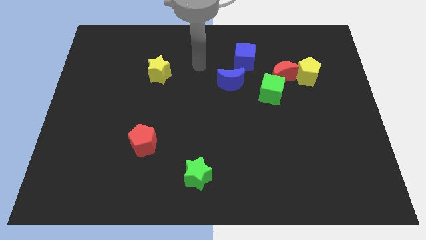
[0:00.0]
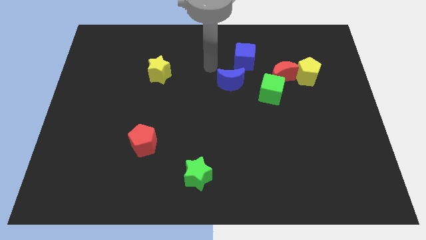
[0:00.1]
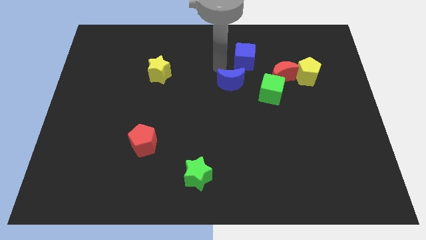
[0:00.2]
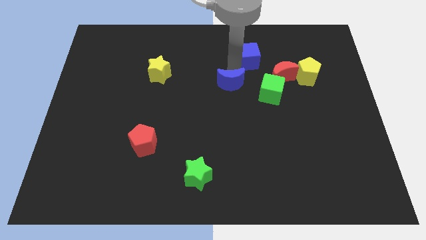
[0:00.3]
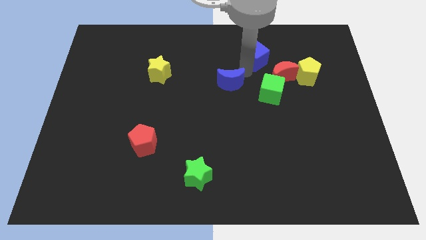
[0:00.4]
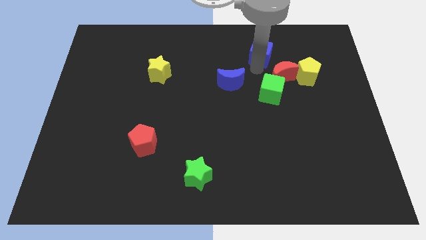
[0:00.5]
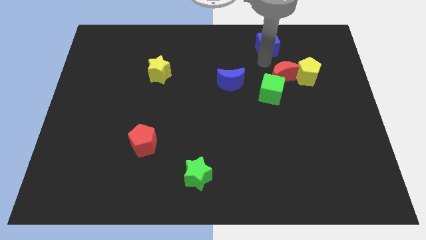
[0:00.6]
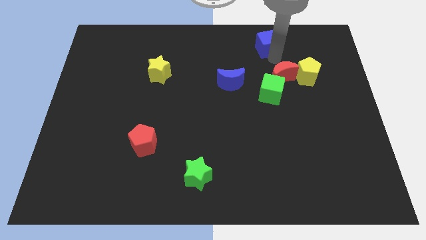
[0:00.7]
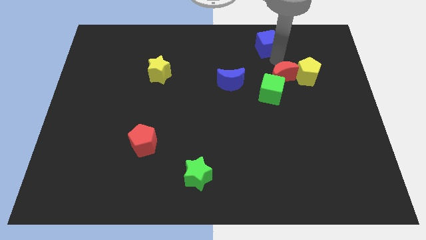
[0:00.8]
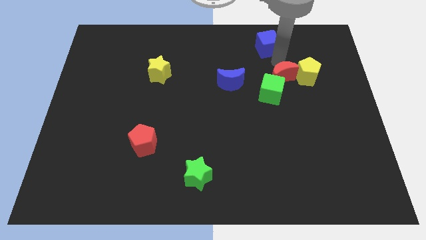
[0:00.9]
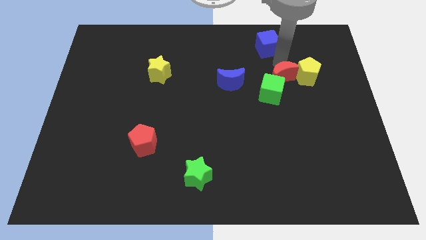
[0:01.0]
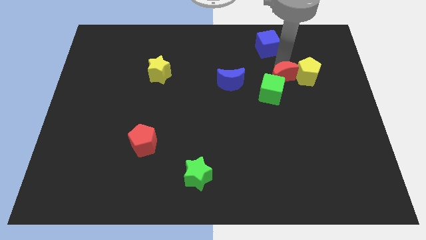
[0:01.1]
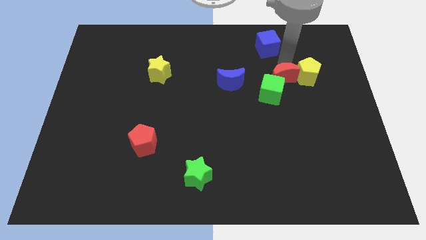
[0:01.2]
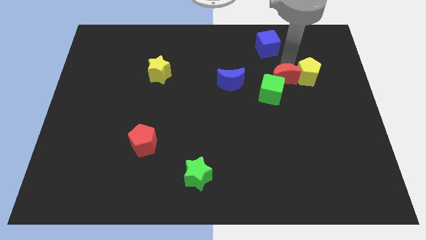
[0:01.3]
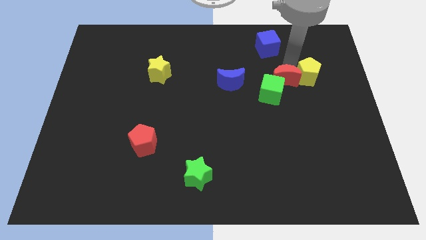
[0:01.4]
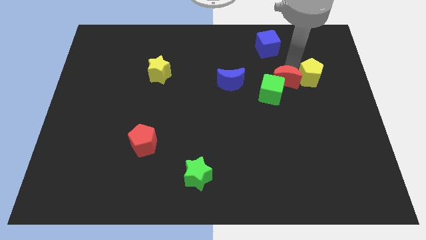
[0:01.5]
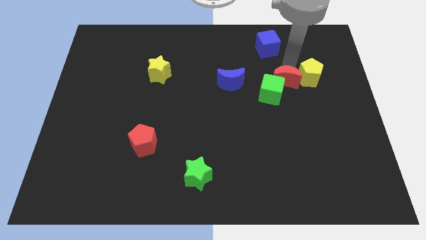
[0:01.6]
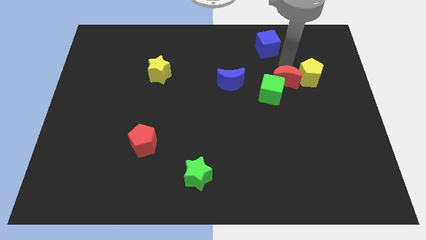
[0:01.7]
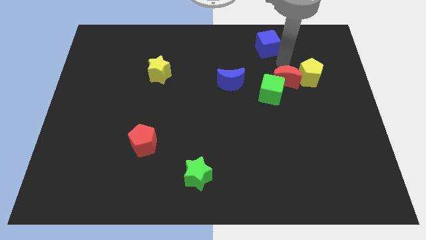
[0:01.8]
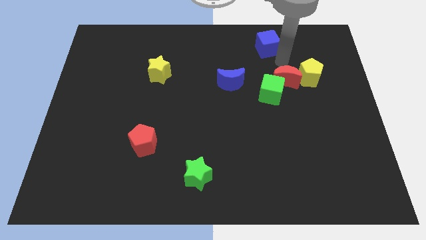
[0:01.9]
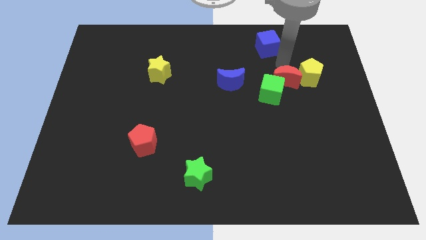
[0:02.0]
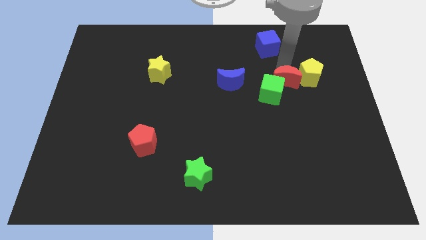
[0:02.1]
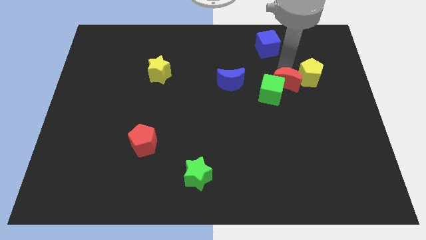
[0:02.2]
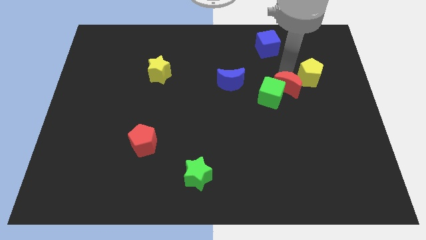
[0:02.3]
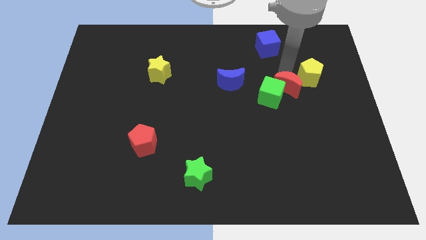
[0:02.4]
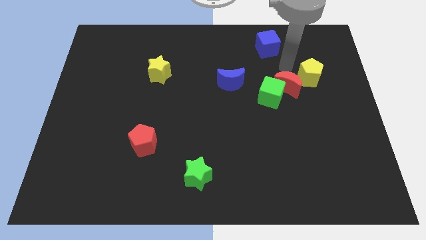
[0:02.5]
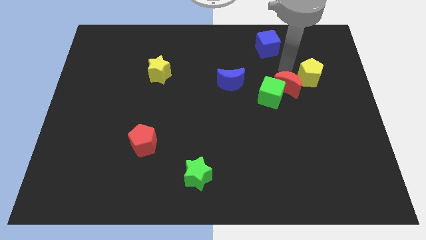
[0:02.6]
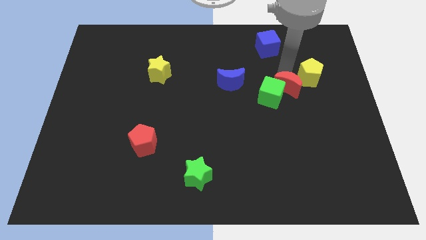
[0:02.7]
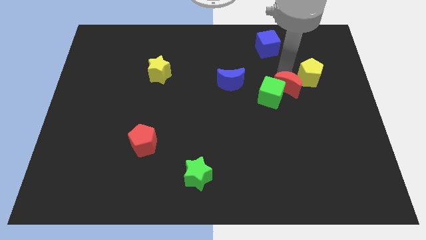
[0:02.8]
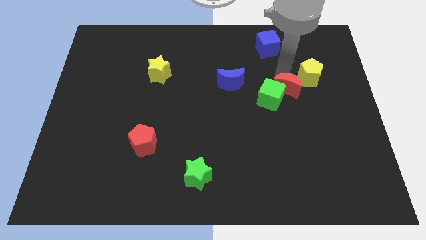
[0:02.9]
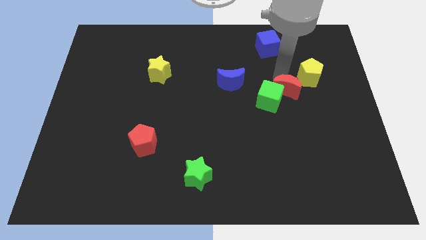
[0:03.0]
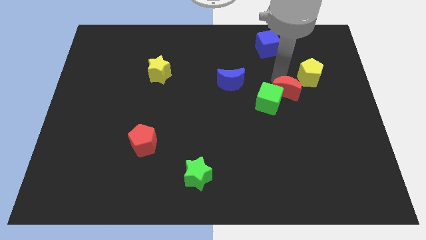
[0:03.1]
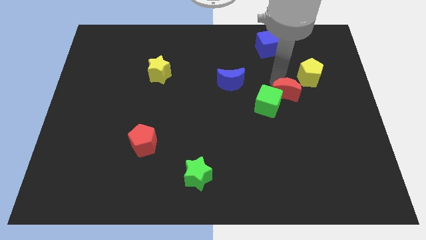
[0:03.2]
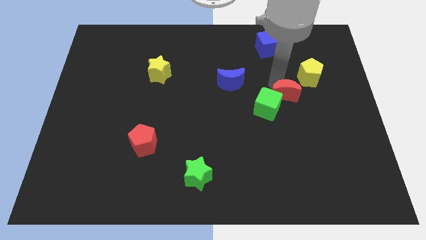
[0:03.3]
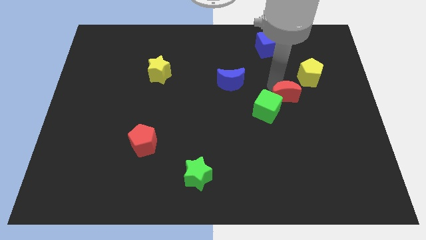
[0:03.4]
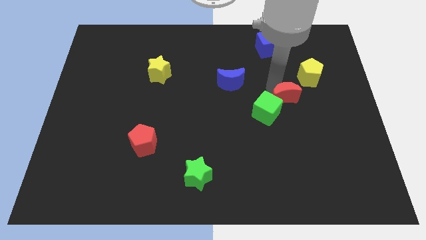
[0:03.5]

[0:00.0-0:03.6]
move the red moon down a little bit

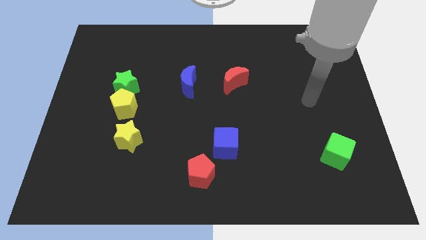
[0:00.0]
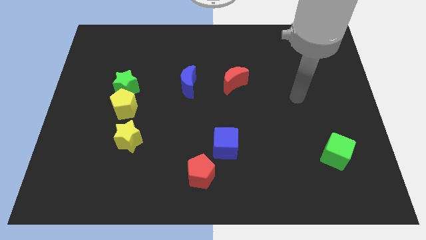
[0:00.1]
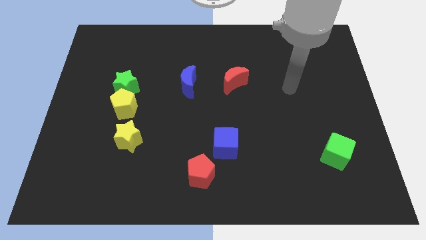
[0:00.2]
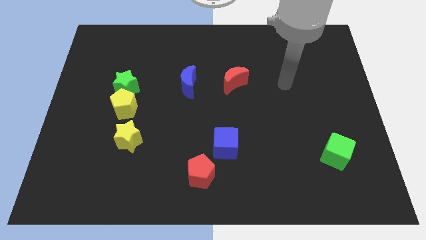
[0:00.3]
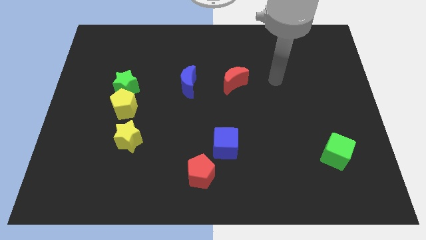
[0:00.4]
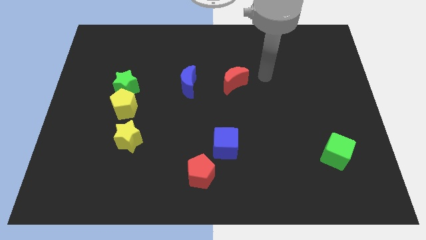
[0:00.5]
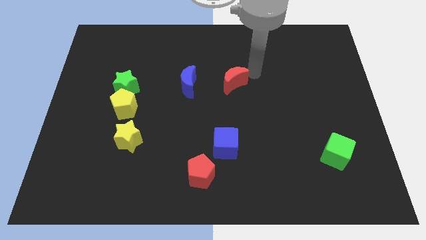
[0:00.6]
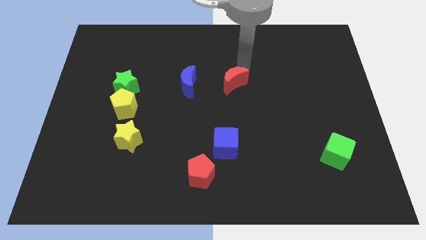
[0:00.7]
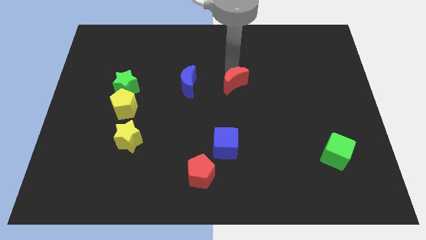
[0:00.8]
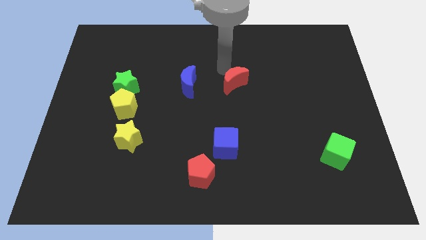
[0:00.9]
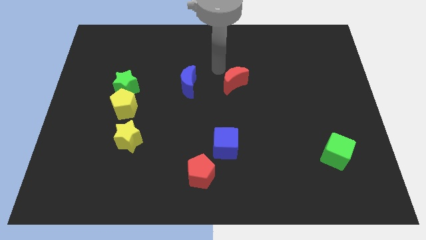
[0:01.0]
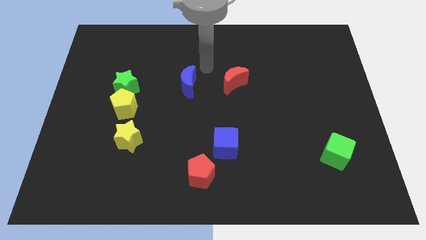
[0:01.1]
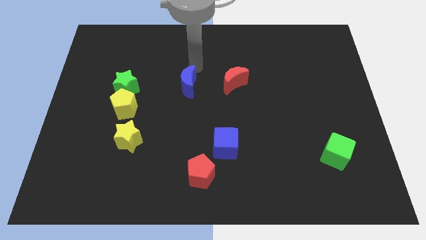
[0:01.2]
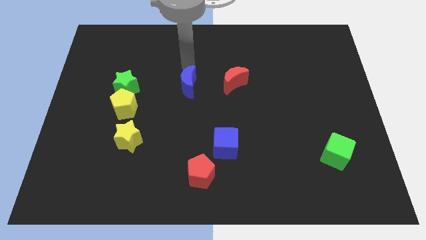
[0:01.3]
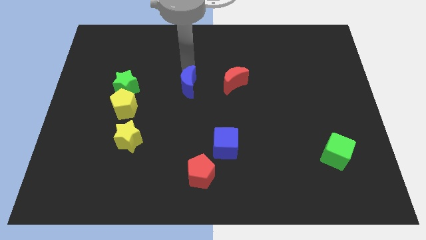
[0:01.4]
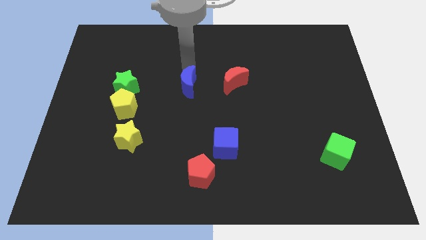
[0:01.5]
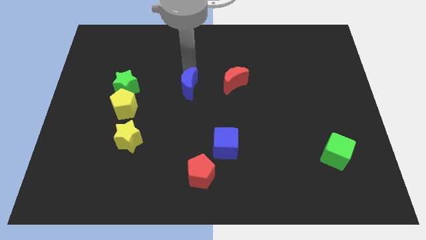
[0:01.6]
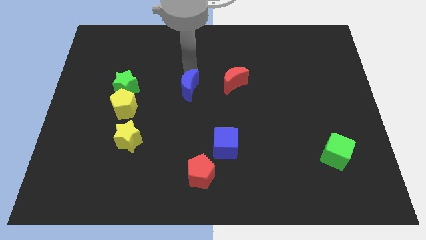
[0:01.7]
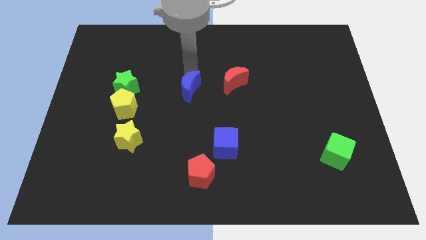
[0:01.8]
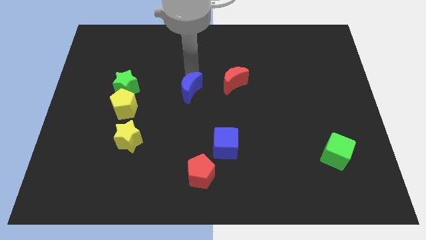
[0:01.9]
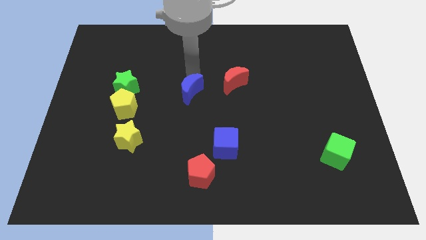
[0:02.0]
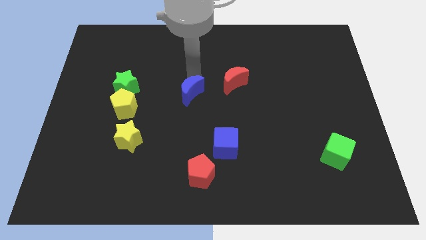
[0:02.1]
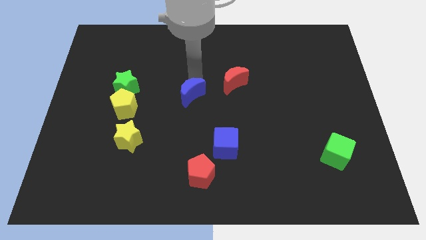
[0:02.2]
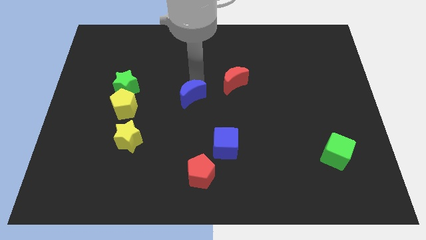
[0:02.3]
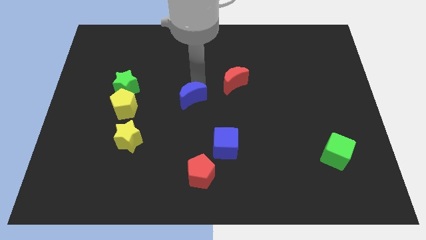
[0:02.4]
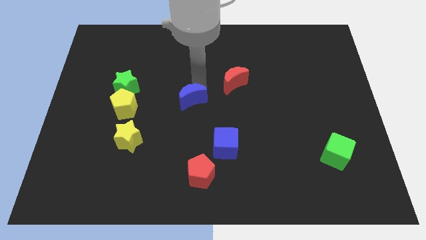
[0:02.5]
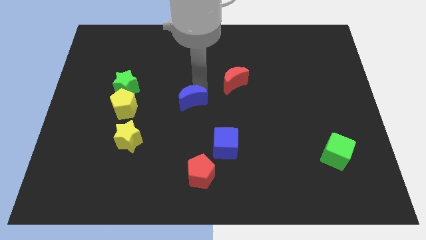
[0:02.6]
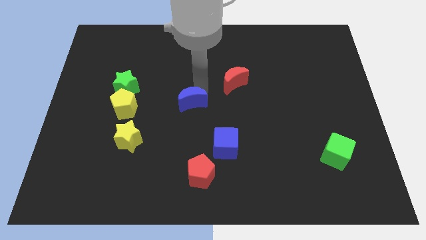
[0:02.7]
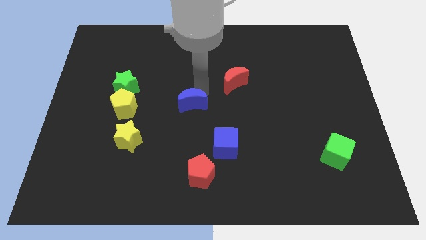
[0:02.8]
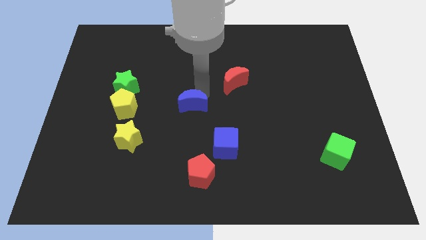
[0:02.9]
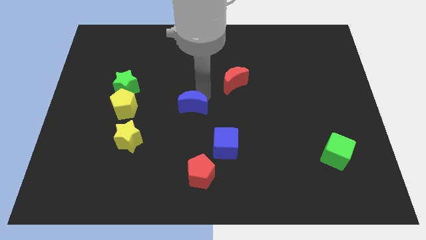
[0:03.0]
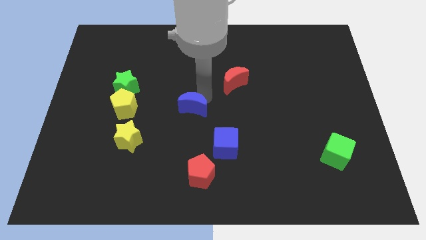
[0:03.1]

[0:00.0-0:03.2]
move the blue moon a little bit downwards

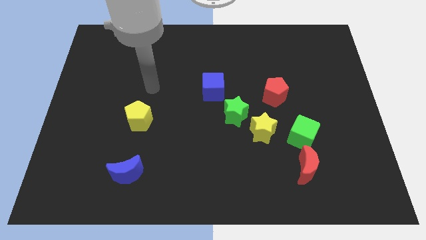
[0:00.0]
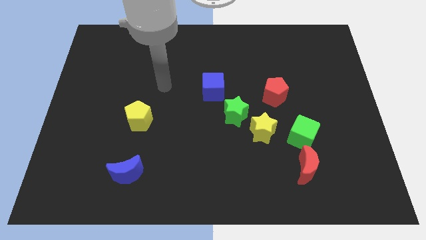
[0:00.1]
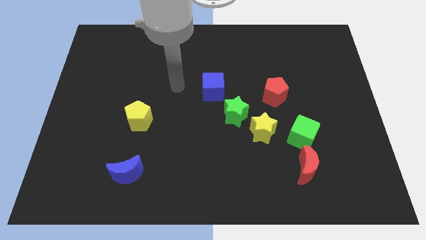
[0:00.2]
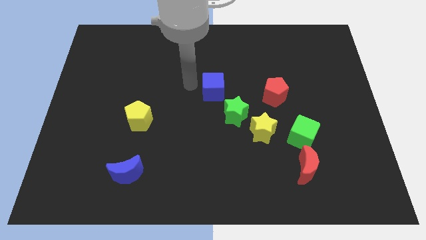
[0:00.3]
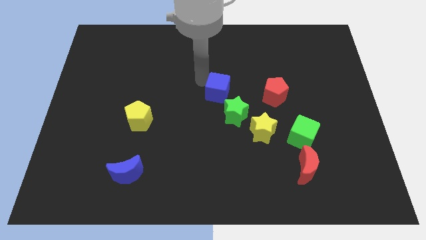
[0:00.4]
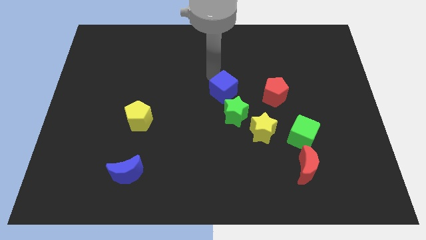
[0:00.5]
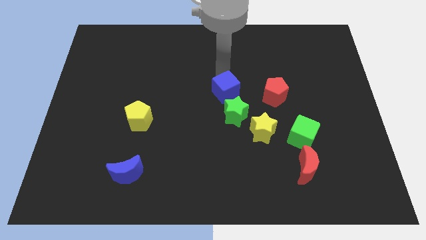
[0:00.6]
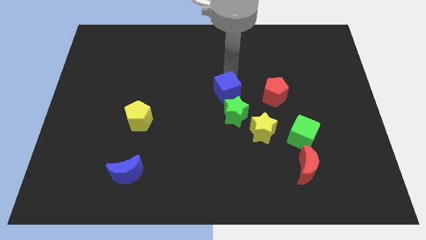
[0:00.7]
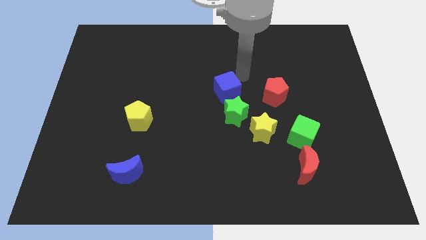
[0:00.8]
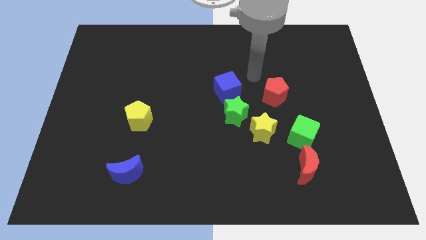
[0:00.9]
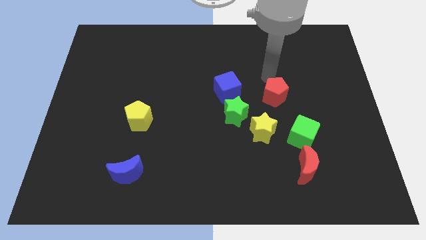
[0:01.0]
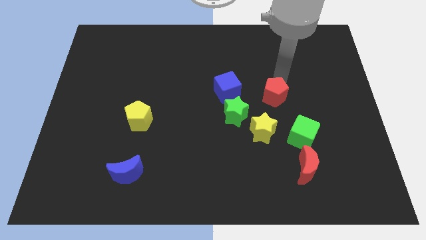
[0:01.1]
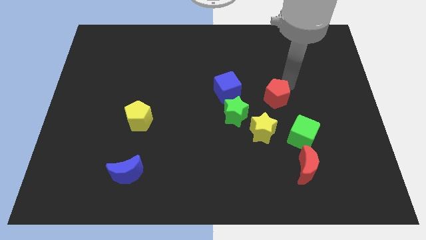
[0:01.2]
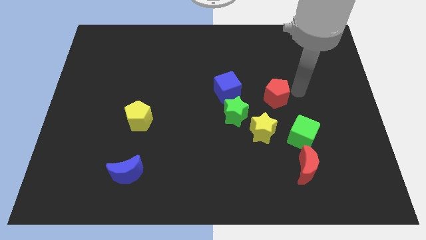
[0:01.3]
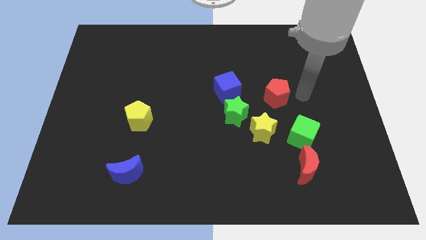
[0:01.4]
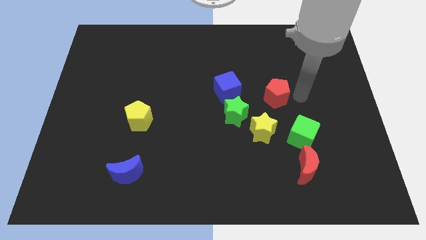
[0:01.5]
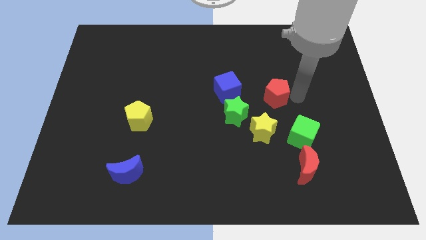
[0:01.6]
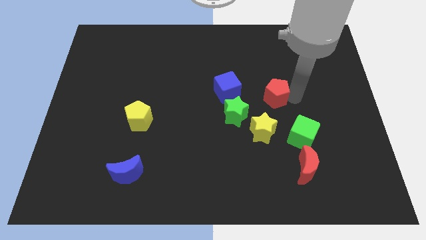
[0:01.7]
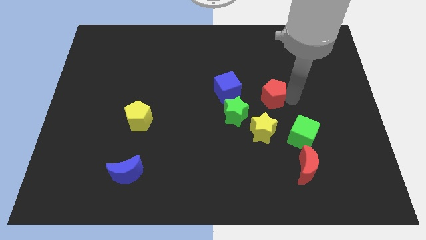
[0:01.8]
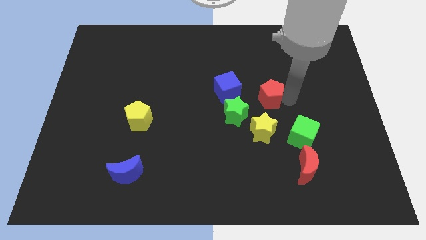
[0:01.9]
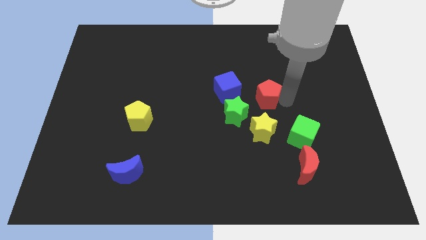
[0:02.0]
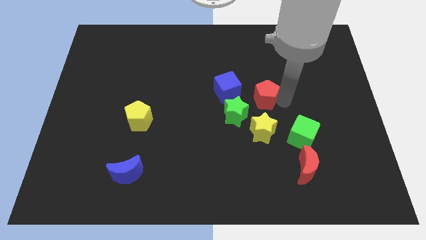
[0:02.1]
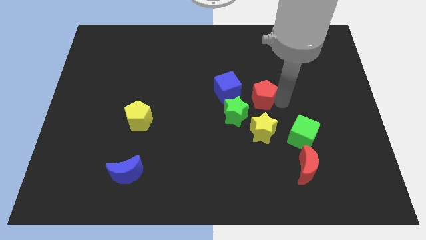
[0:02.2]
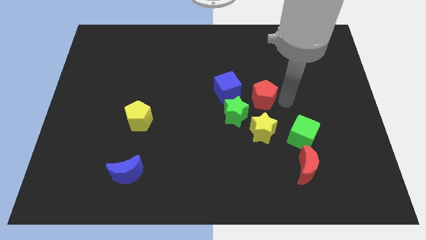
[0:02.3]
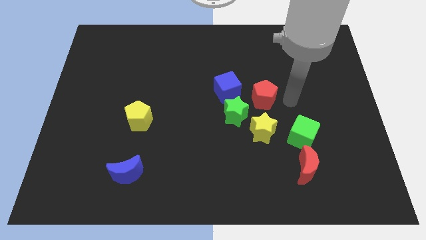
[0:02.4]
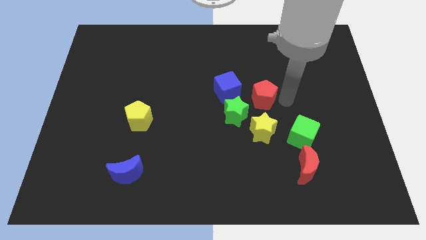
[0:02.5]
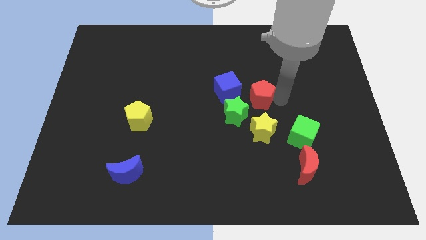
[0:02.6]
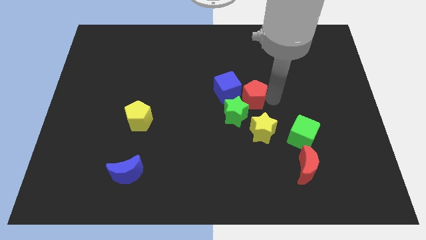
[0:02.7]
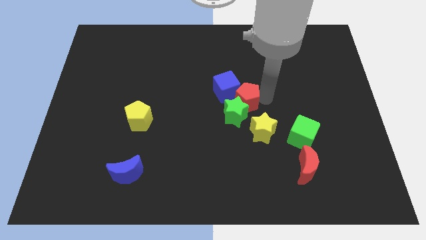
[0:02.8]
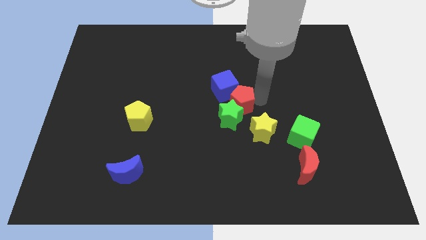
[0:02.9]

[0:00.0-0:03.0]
move the red pentagon down and to the left diagonally somewhat
